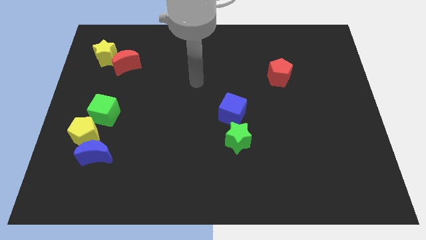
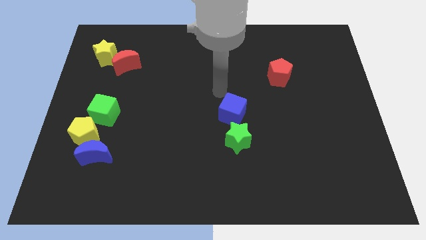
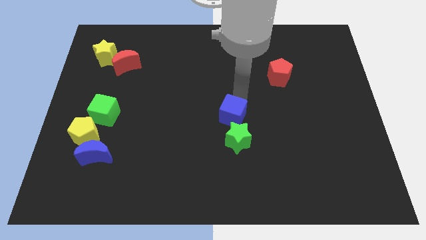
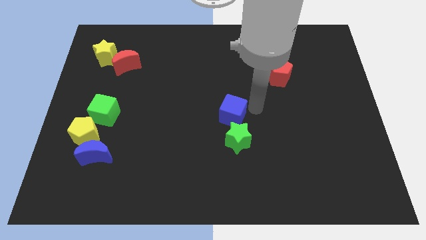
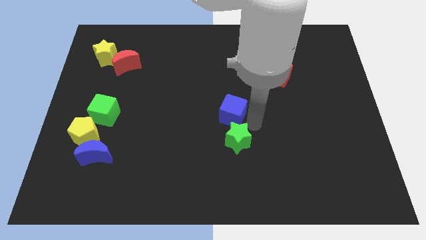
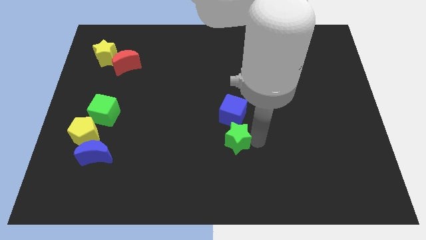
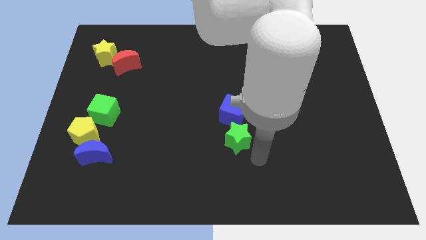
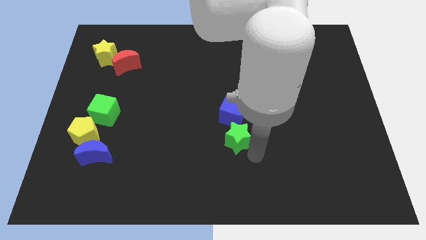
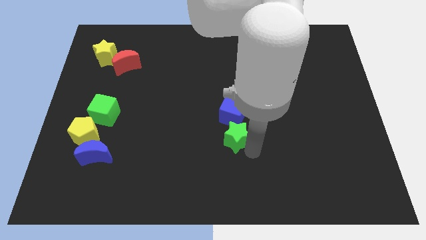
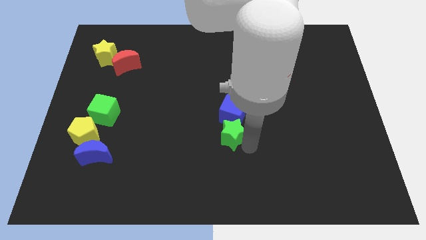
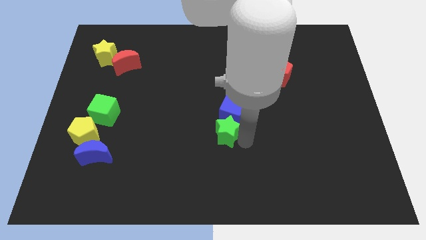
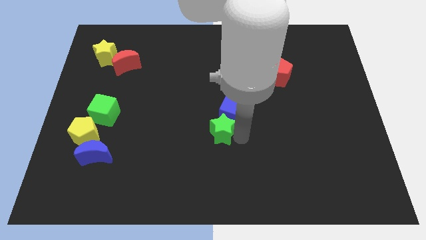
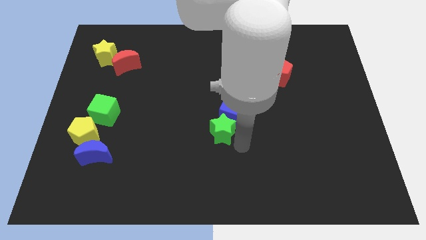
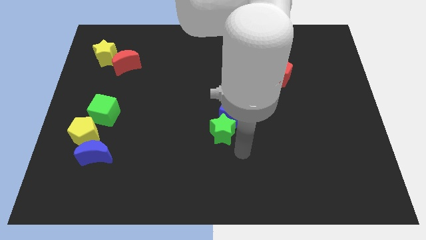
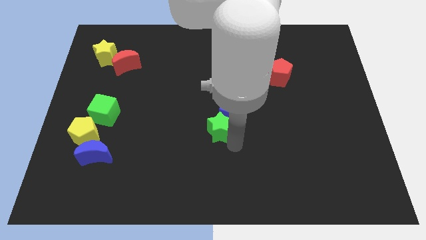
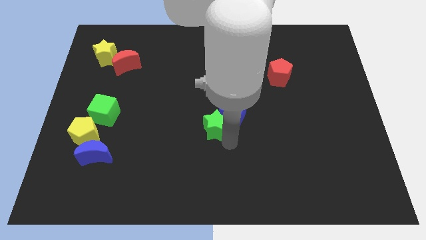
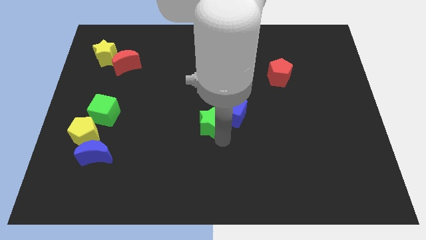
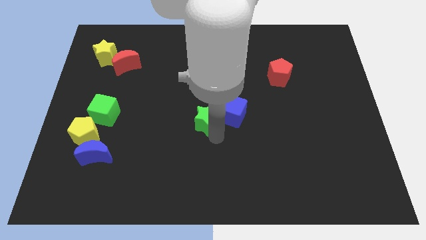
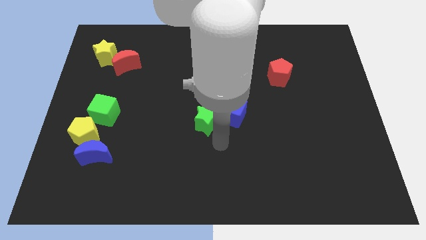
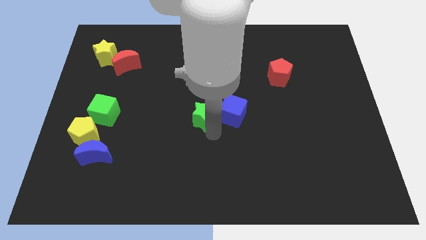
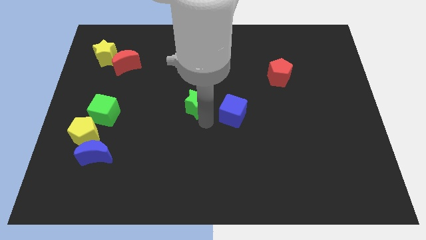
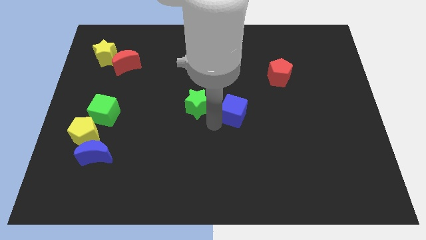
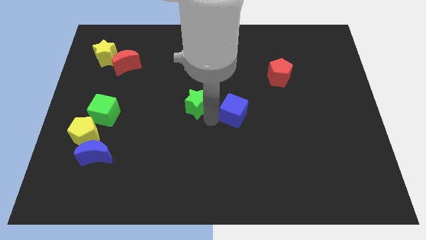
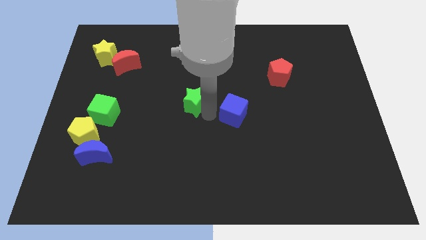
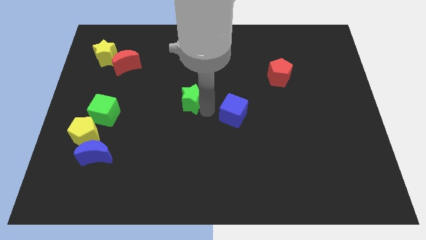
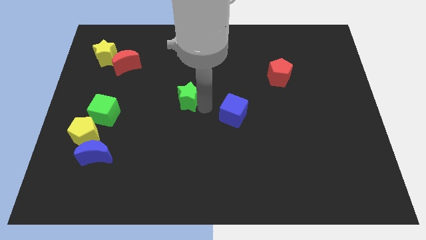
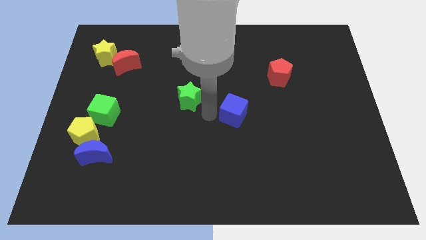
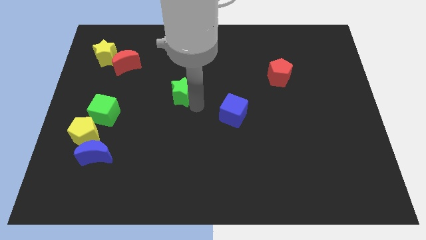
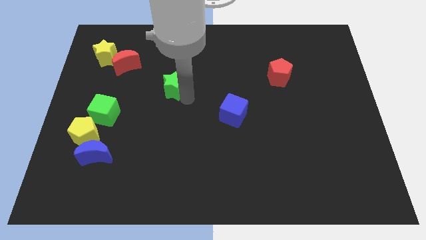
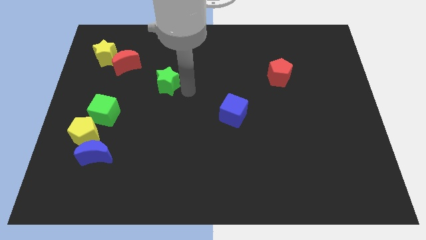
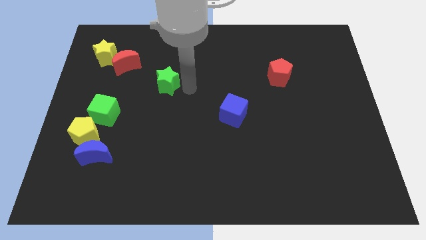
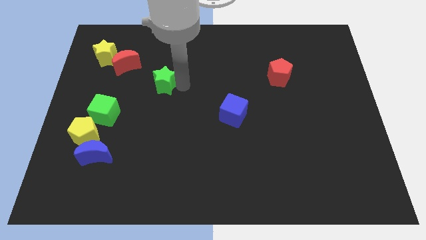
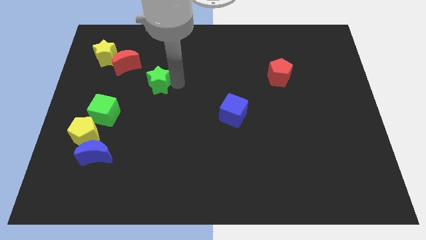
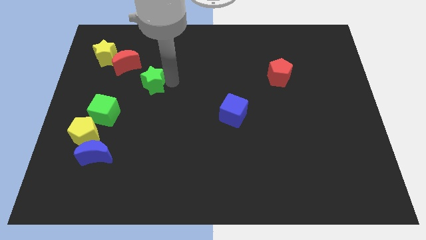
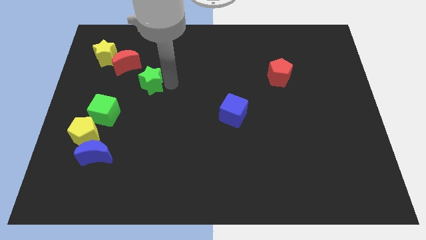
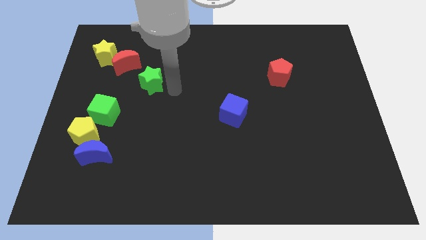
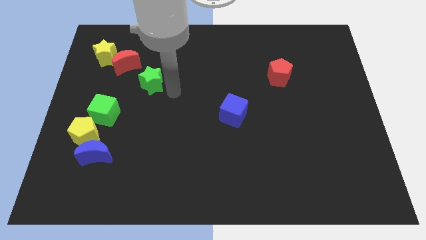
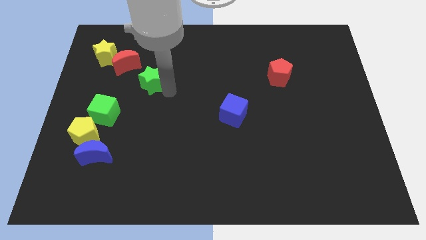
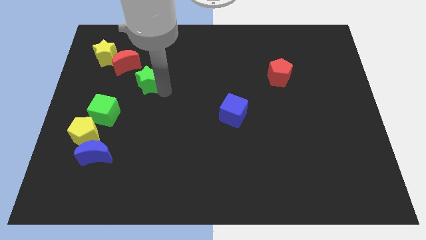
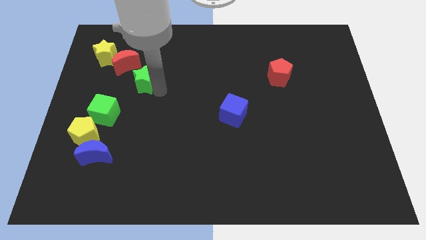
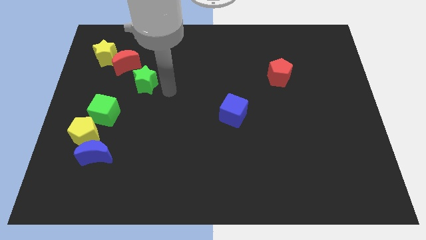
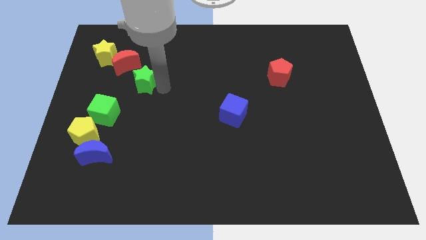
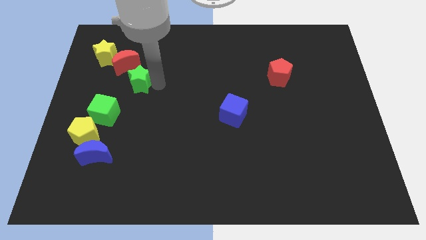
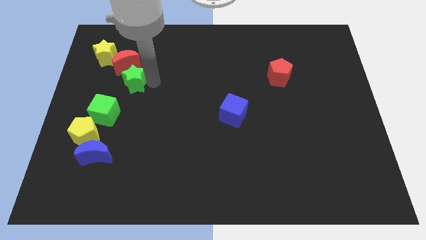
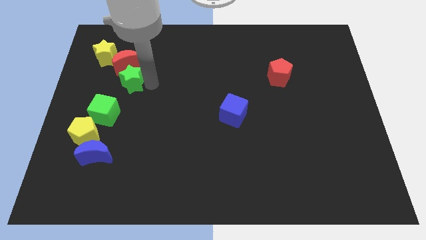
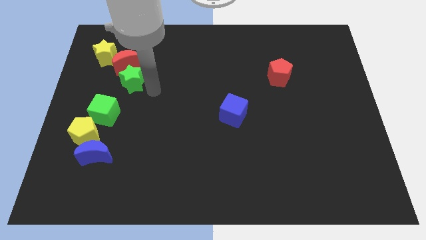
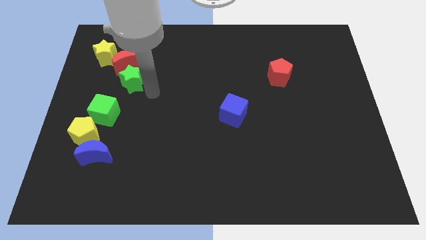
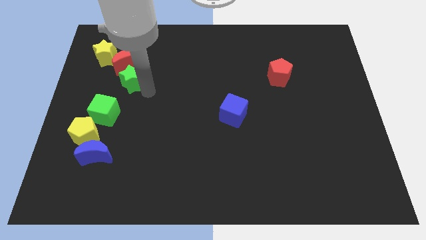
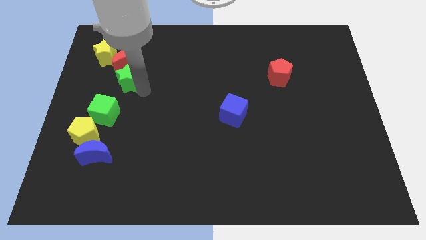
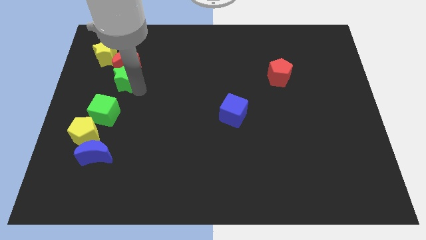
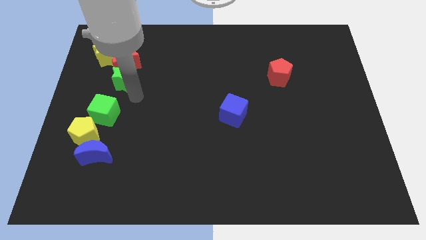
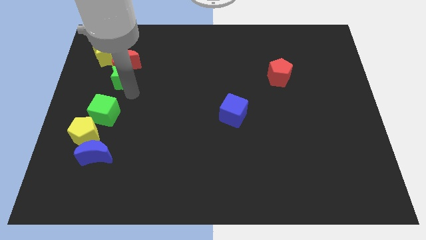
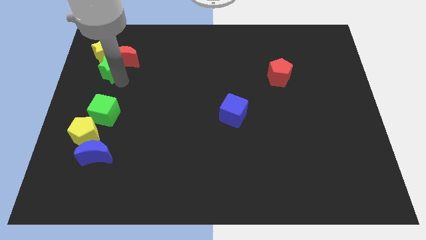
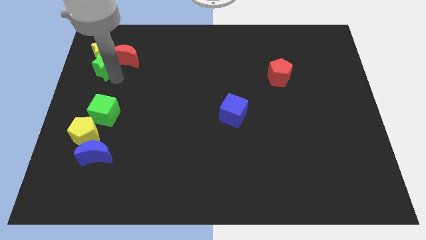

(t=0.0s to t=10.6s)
put the green star close to the yellow star

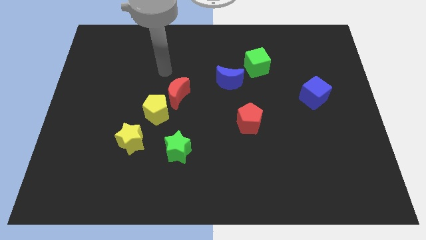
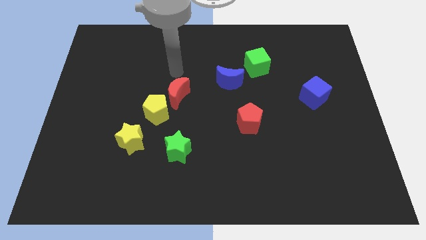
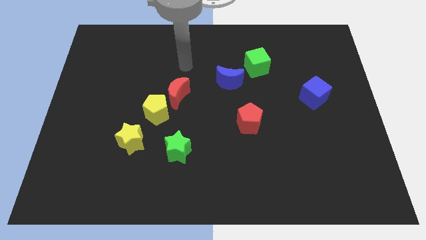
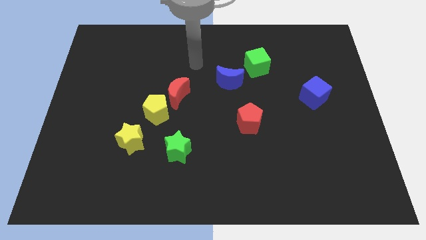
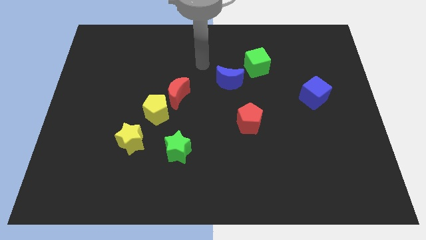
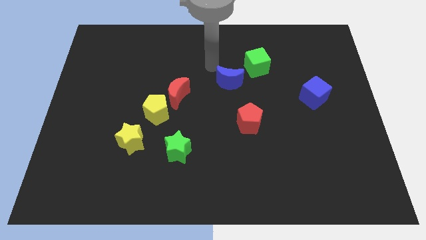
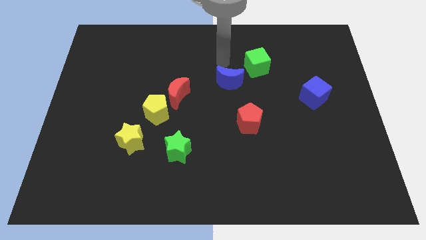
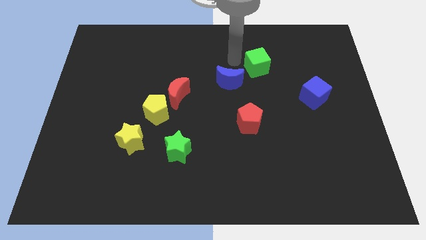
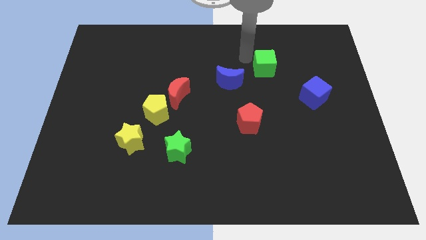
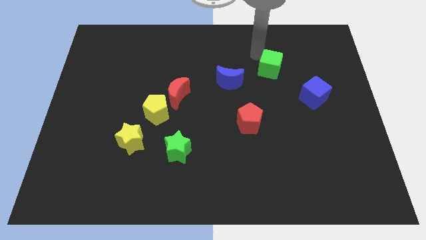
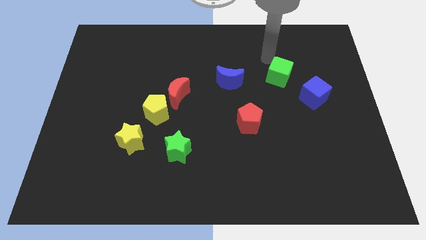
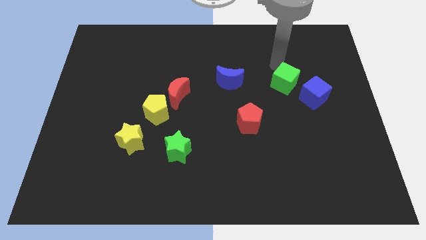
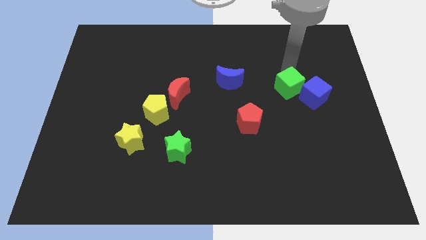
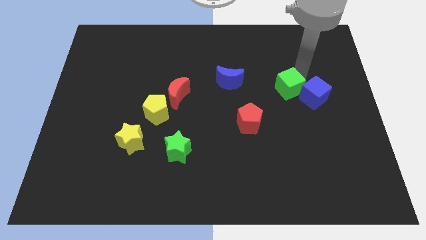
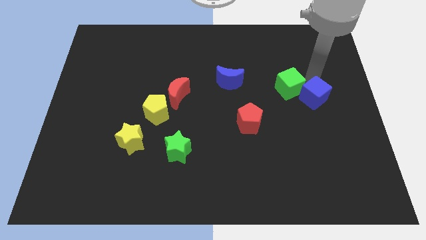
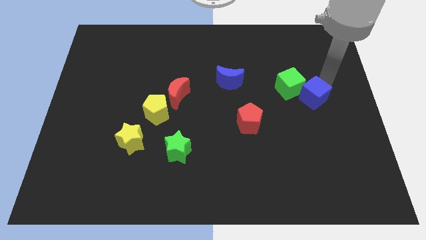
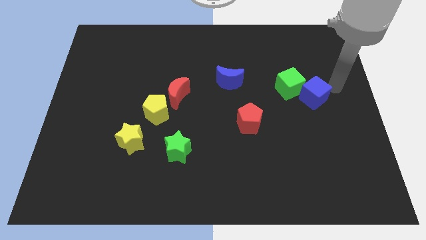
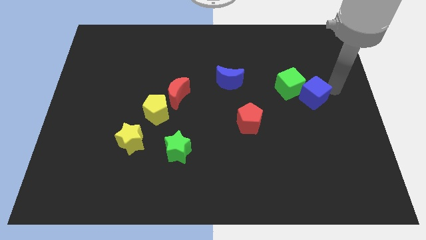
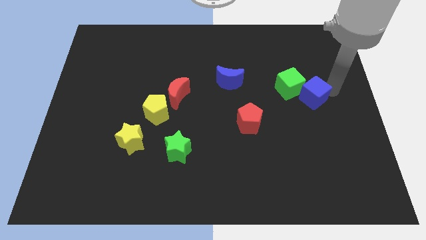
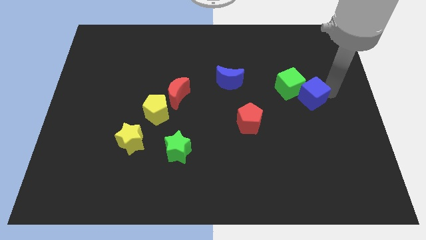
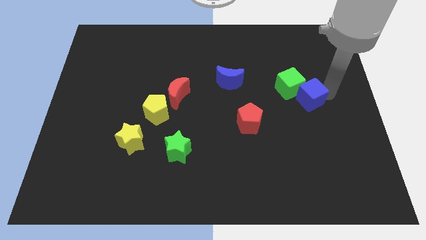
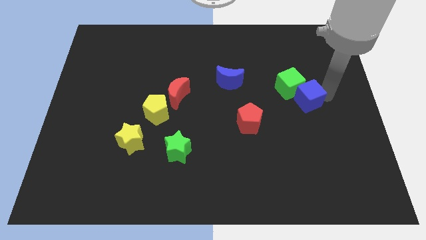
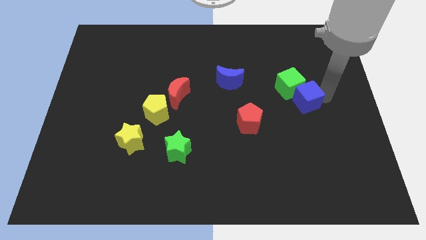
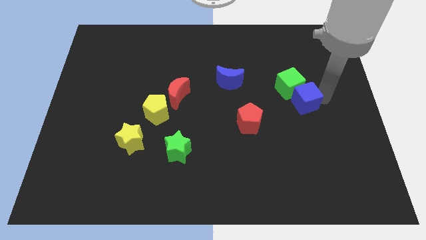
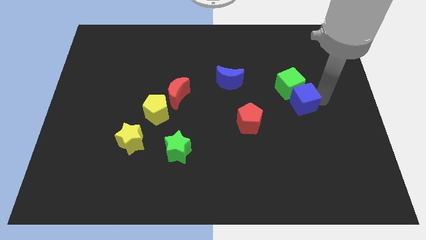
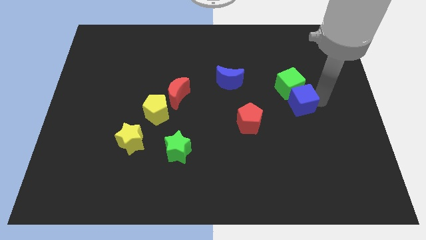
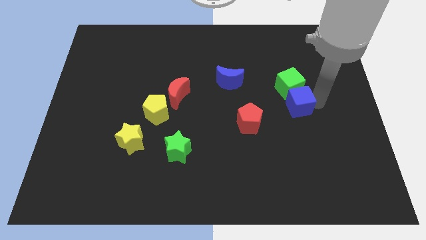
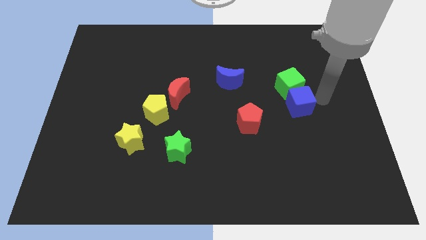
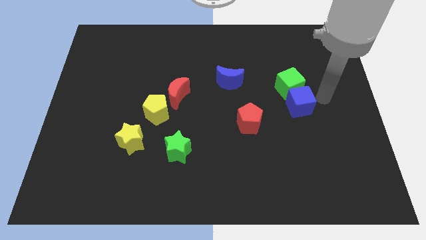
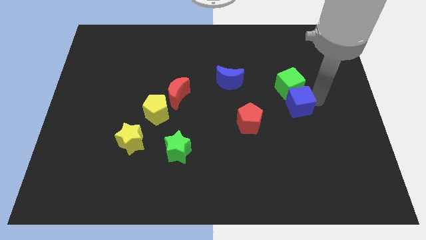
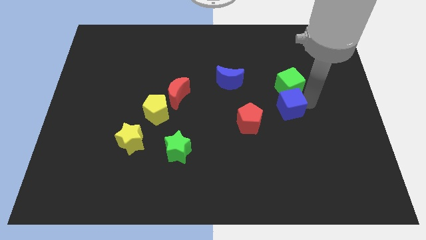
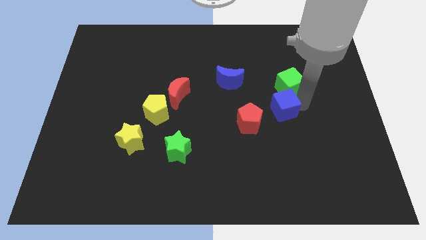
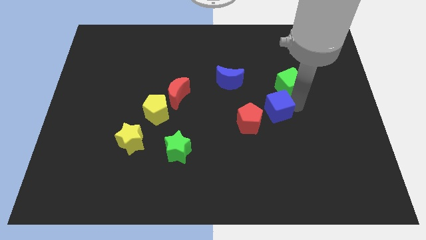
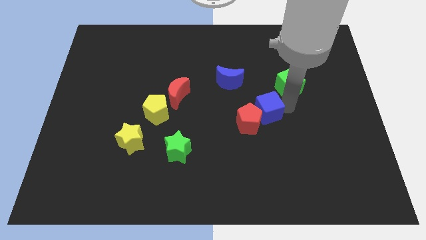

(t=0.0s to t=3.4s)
slide the blue cube to the red pentagon
